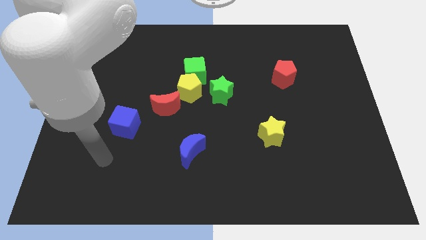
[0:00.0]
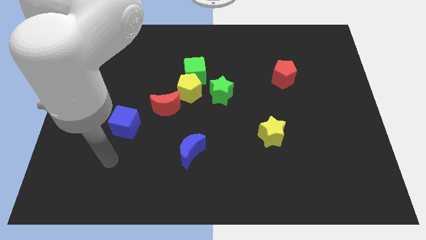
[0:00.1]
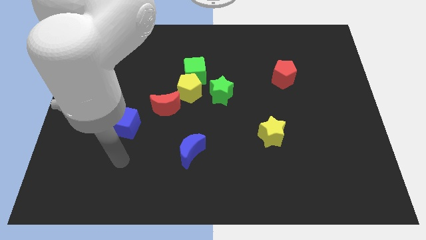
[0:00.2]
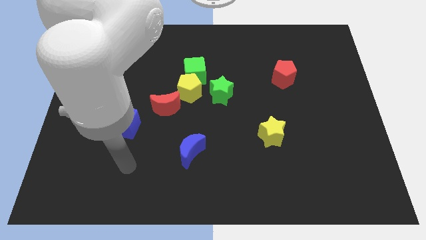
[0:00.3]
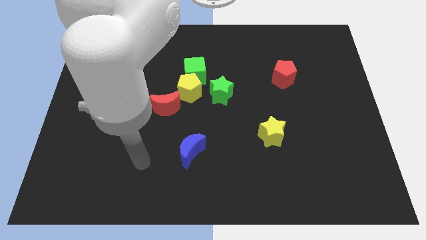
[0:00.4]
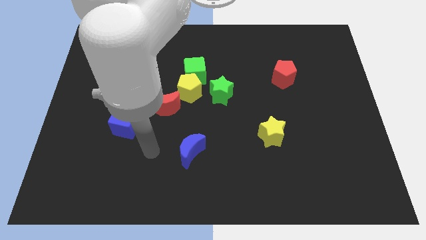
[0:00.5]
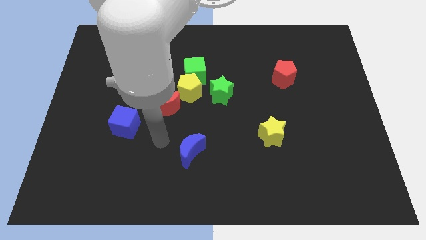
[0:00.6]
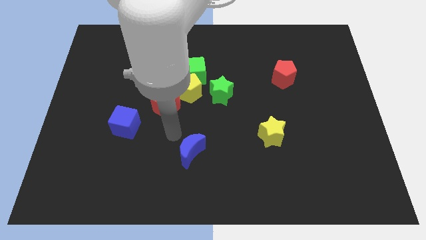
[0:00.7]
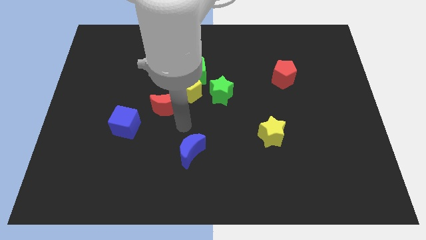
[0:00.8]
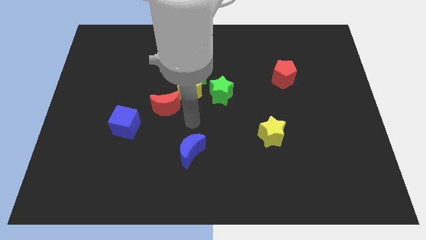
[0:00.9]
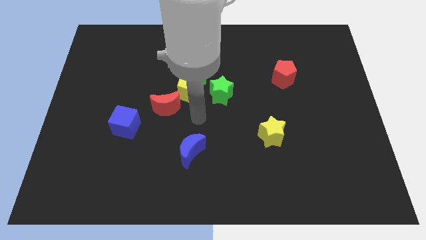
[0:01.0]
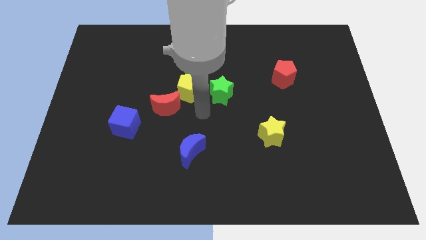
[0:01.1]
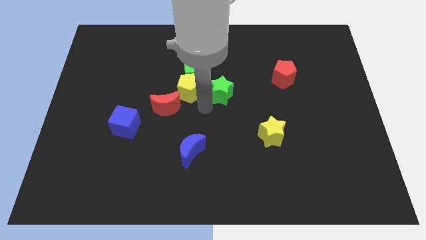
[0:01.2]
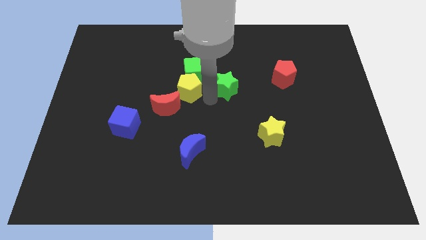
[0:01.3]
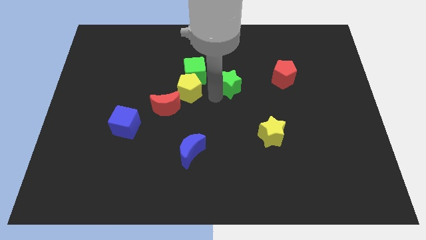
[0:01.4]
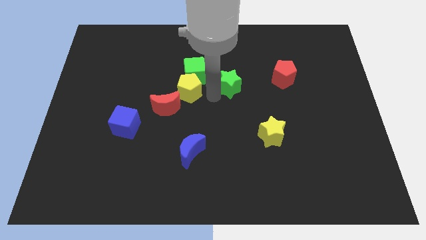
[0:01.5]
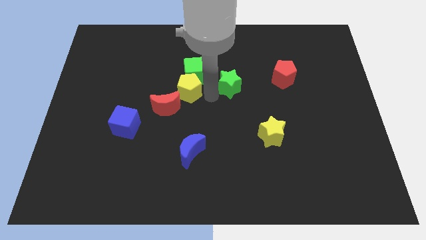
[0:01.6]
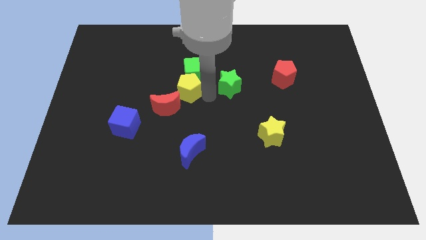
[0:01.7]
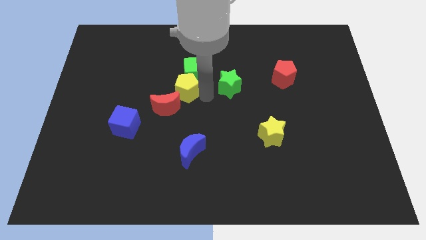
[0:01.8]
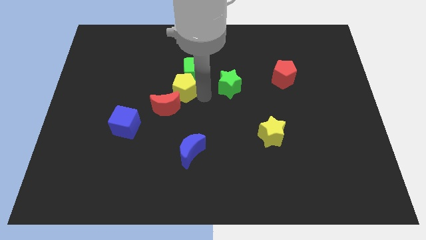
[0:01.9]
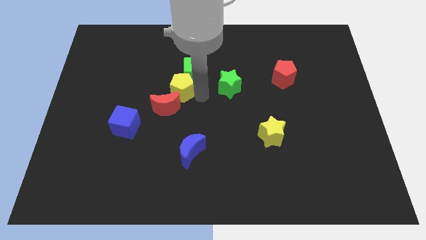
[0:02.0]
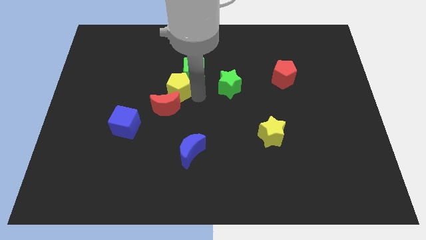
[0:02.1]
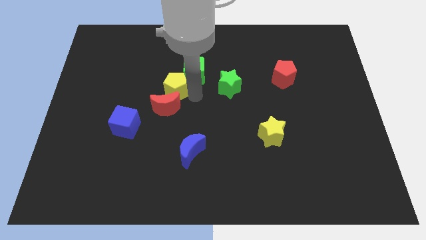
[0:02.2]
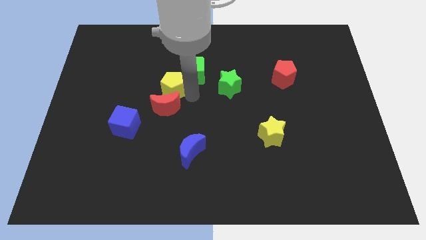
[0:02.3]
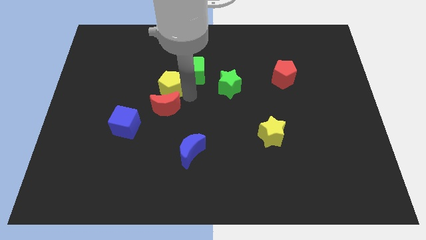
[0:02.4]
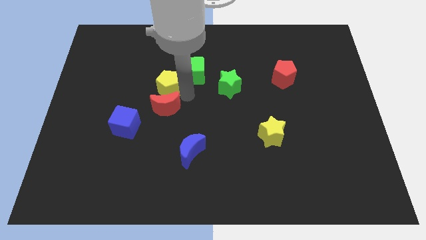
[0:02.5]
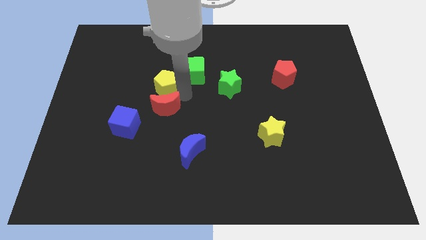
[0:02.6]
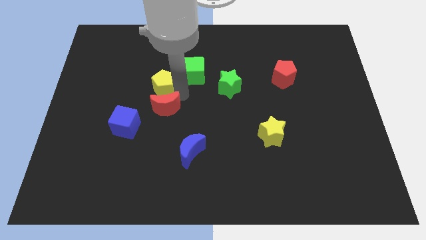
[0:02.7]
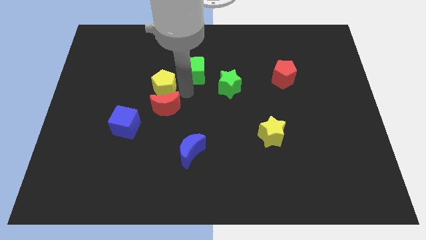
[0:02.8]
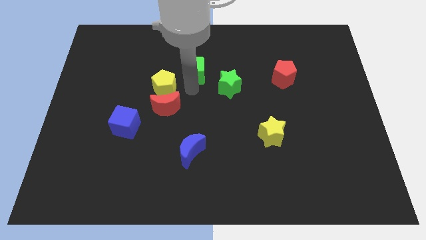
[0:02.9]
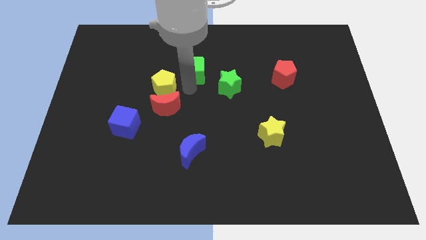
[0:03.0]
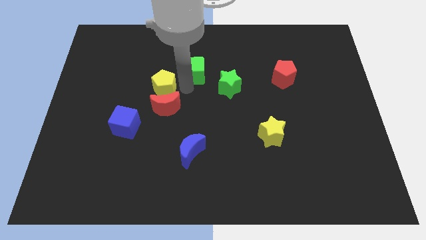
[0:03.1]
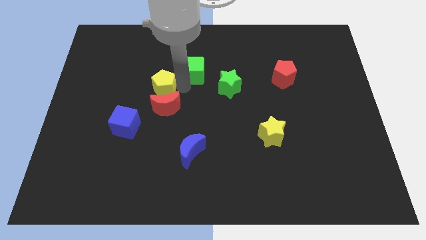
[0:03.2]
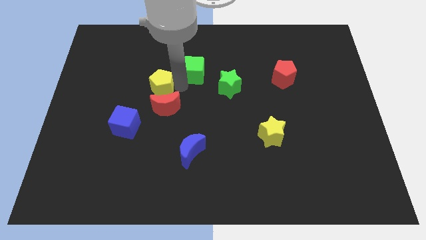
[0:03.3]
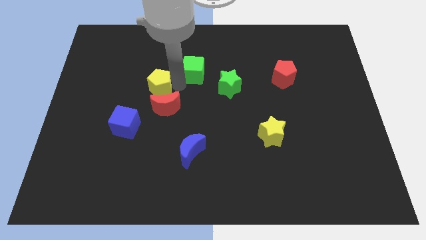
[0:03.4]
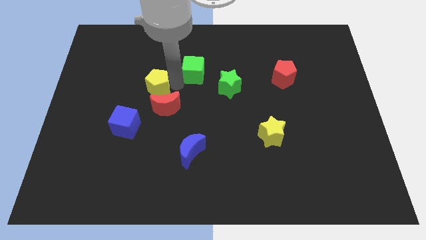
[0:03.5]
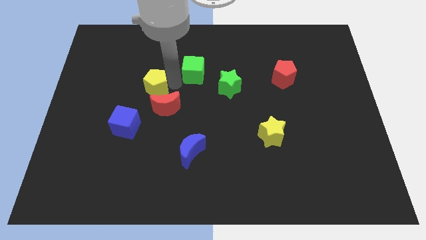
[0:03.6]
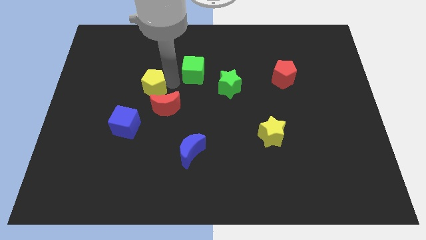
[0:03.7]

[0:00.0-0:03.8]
move the yellow pentagon away from the group of blocks

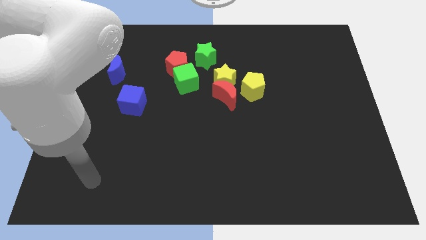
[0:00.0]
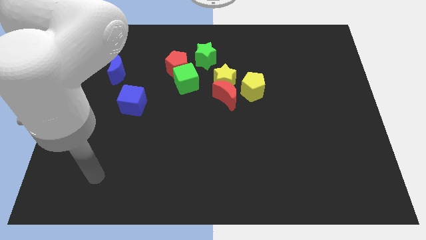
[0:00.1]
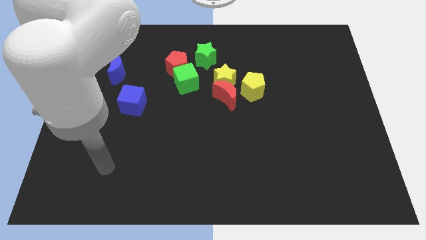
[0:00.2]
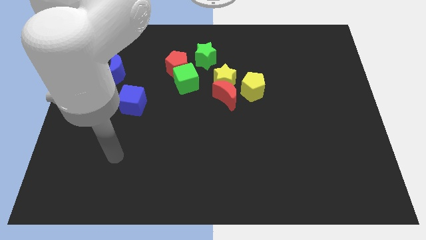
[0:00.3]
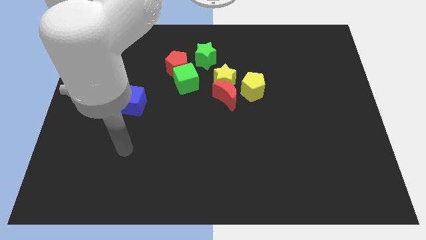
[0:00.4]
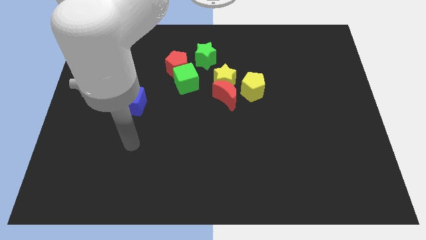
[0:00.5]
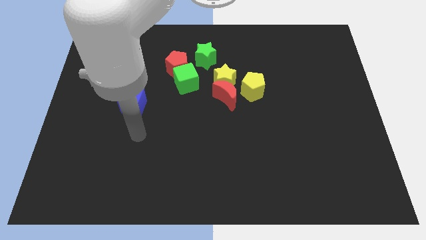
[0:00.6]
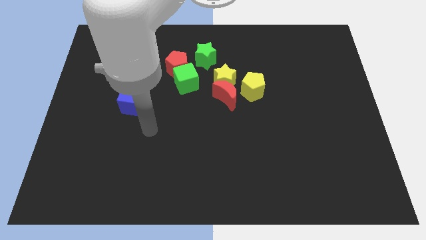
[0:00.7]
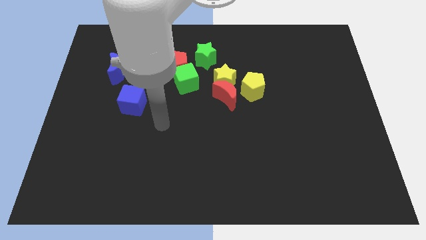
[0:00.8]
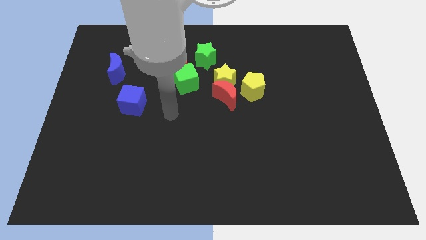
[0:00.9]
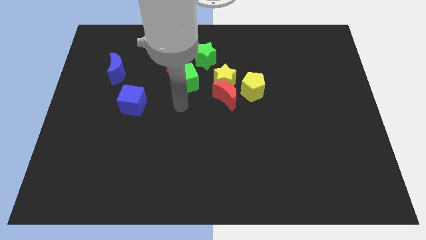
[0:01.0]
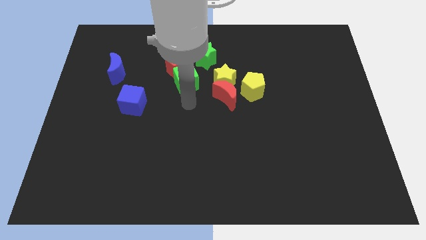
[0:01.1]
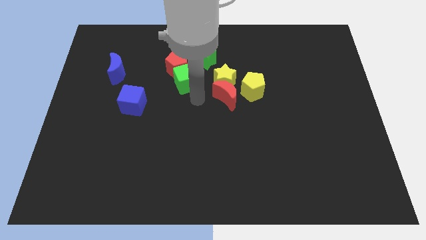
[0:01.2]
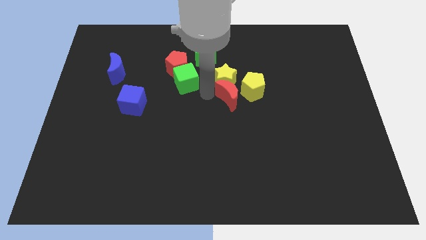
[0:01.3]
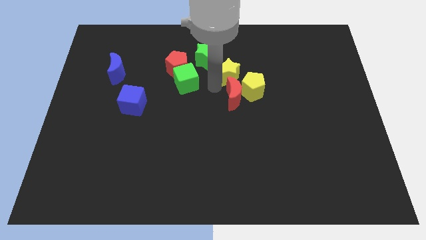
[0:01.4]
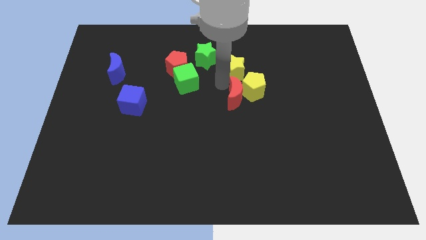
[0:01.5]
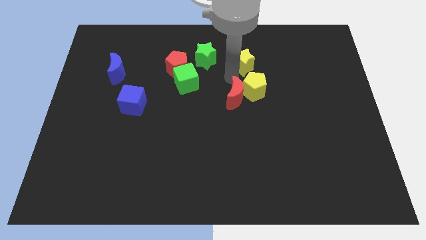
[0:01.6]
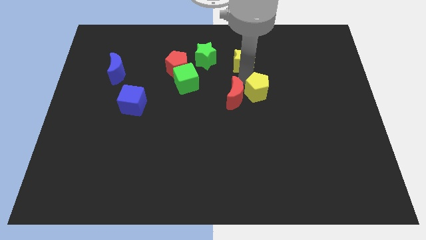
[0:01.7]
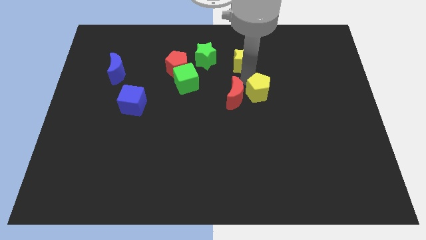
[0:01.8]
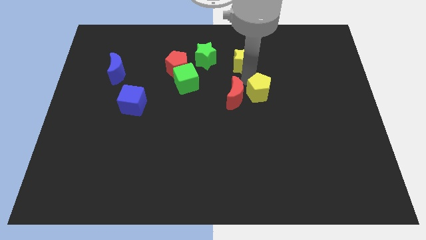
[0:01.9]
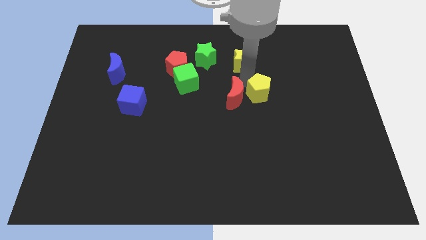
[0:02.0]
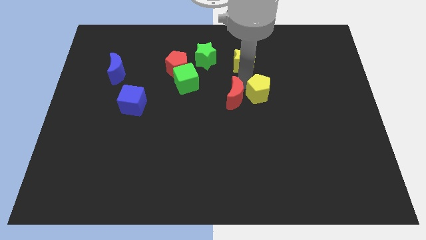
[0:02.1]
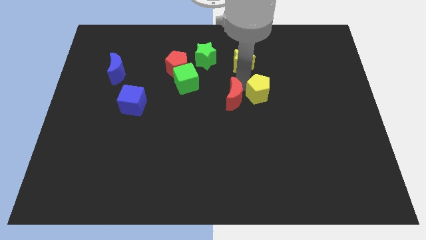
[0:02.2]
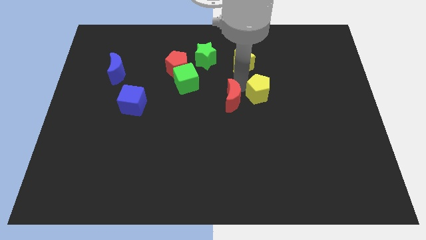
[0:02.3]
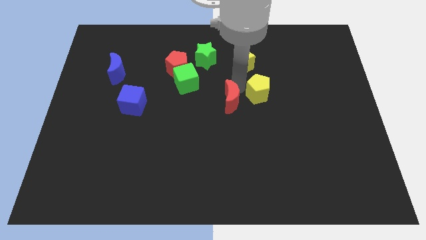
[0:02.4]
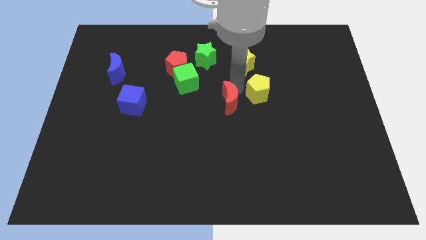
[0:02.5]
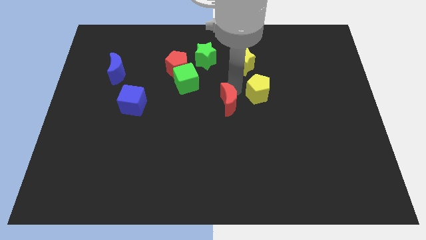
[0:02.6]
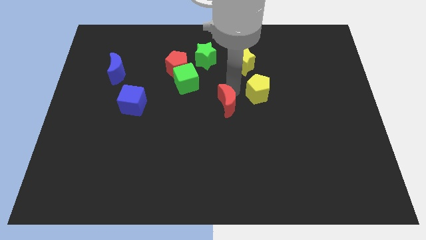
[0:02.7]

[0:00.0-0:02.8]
separate the red moon from the yellow star and yellow pentagon

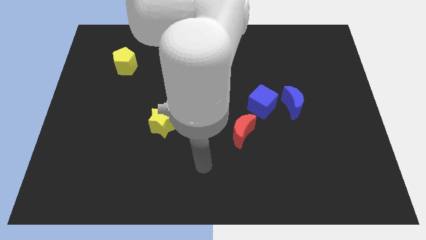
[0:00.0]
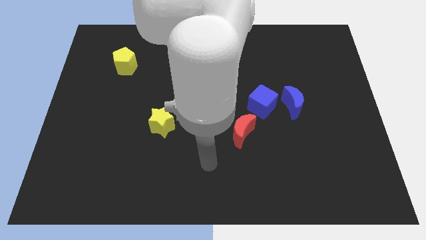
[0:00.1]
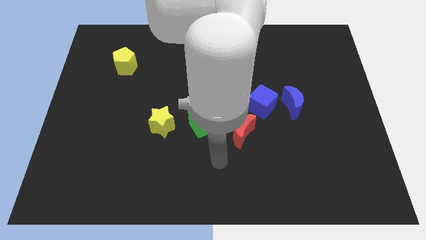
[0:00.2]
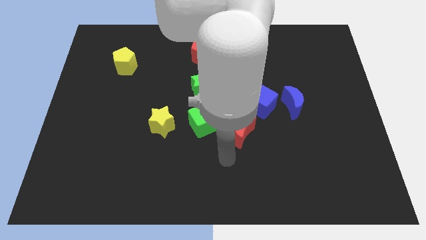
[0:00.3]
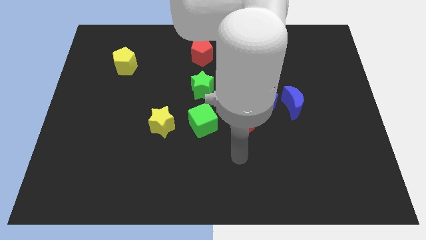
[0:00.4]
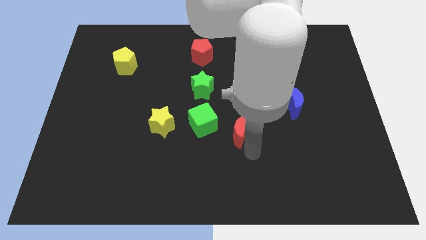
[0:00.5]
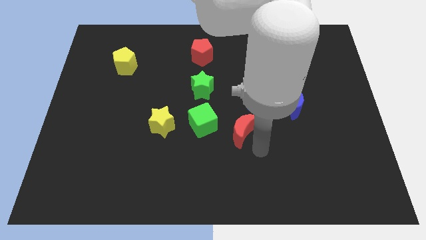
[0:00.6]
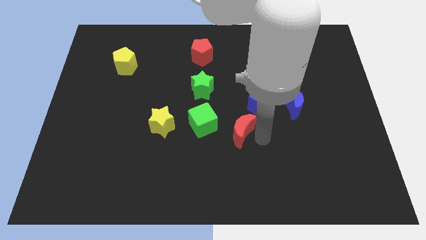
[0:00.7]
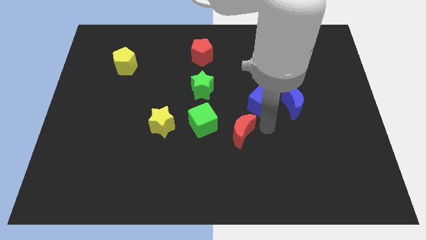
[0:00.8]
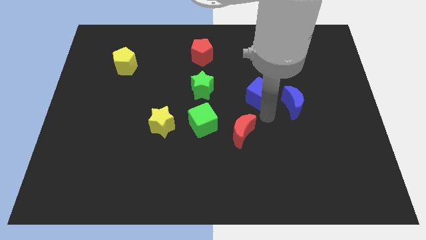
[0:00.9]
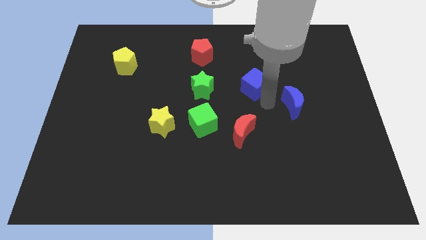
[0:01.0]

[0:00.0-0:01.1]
pull the blue moon apart from the blue cube

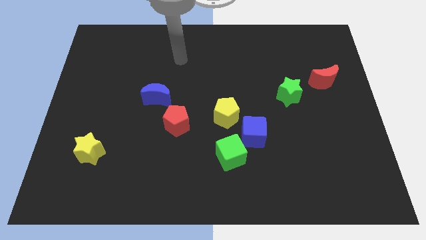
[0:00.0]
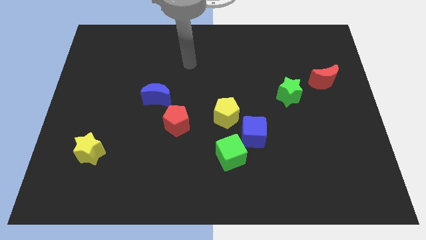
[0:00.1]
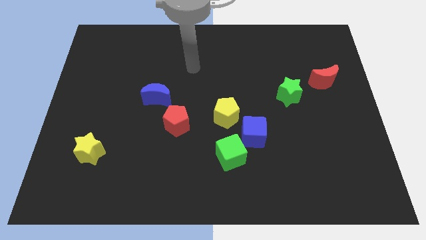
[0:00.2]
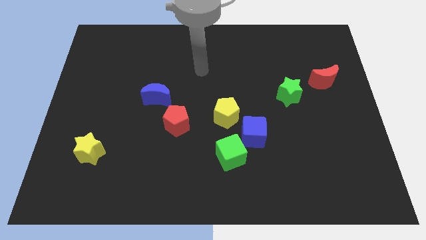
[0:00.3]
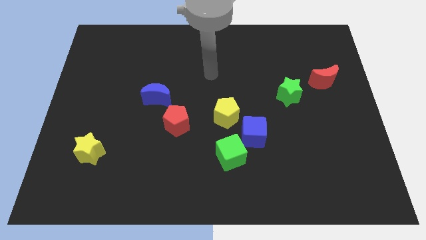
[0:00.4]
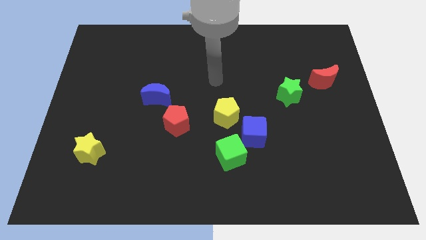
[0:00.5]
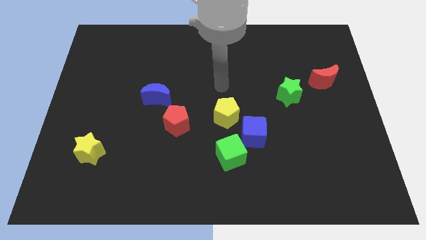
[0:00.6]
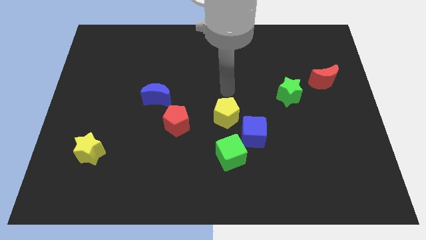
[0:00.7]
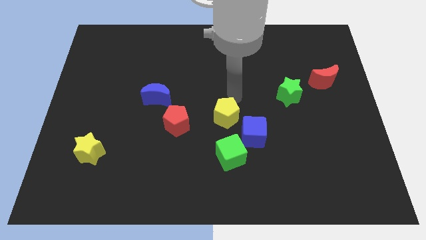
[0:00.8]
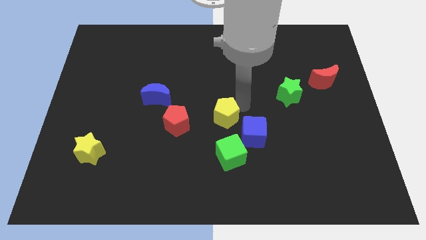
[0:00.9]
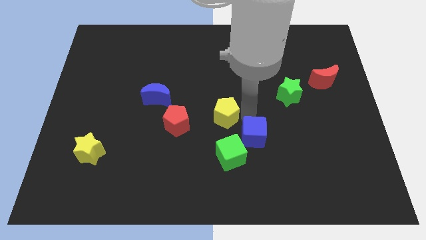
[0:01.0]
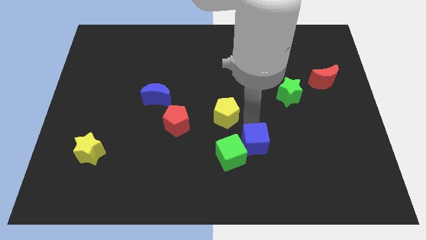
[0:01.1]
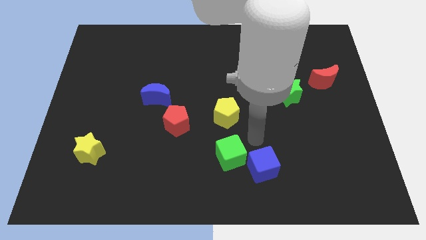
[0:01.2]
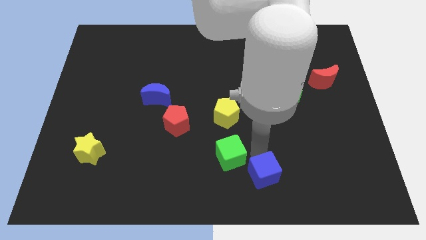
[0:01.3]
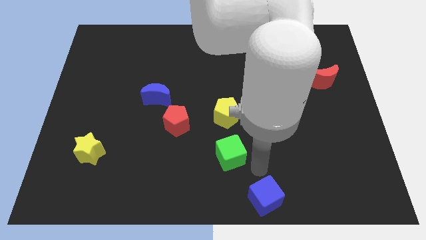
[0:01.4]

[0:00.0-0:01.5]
separate the green cube from the blue cube
